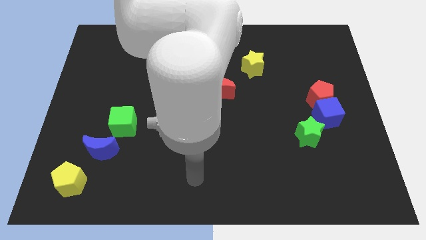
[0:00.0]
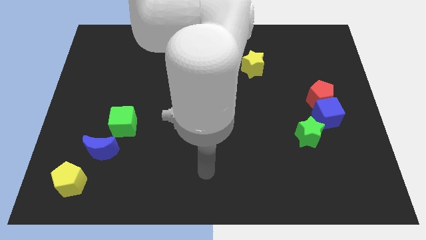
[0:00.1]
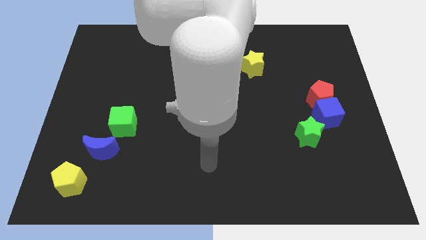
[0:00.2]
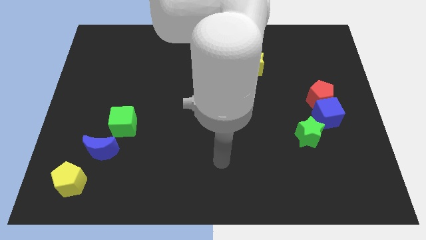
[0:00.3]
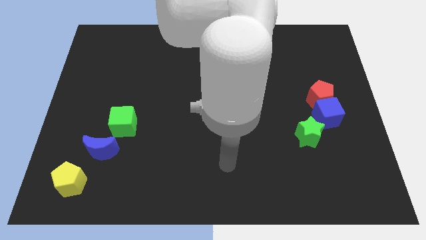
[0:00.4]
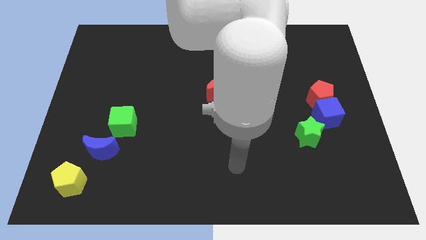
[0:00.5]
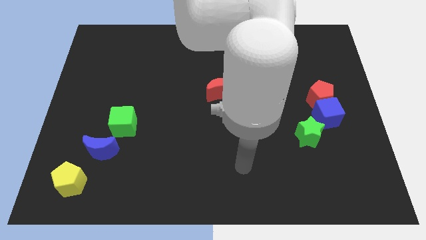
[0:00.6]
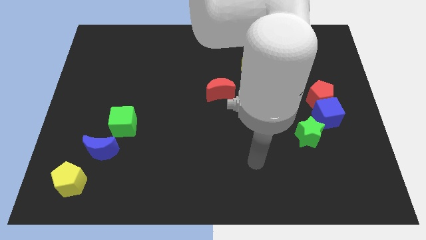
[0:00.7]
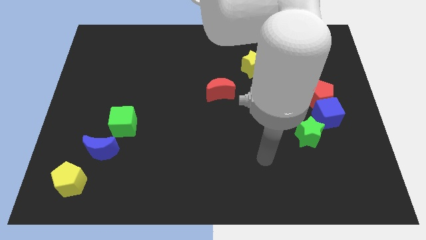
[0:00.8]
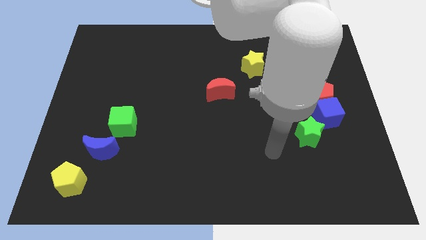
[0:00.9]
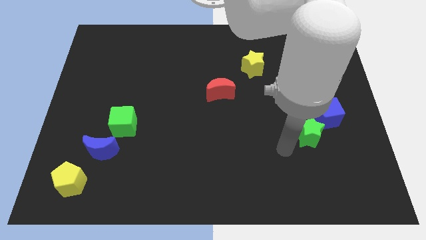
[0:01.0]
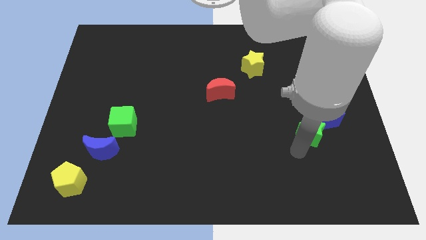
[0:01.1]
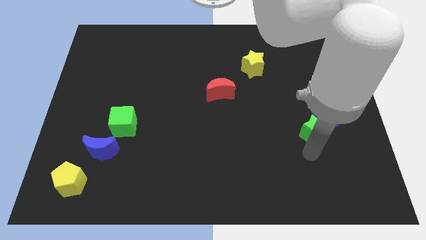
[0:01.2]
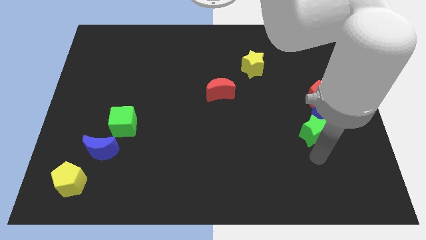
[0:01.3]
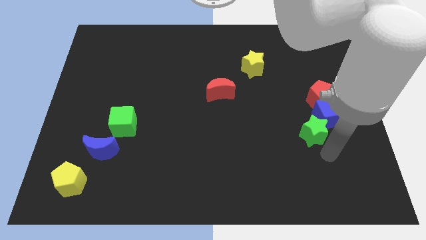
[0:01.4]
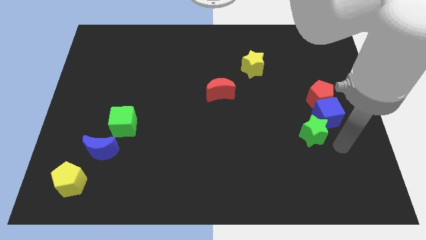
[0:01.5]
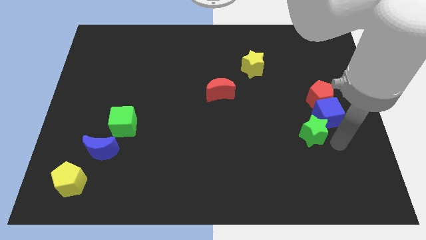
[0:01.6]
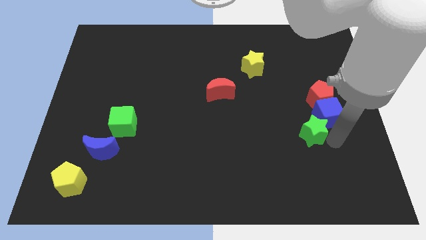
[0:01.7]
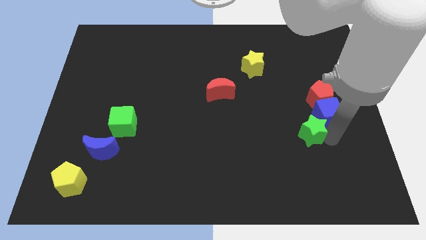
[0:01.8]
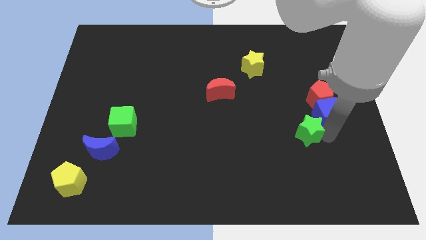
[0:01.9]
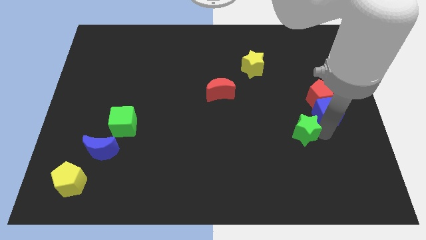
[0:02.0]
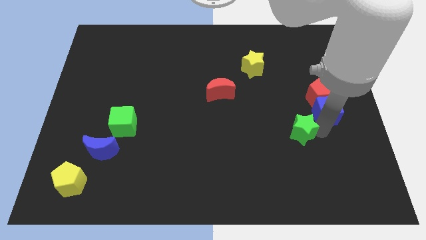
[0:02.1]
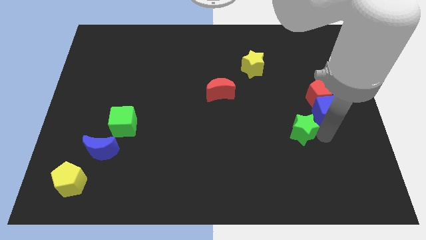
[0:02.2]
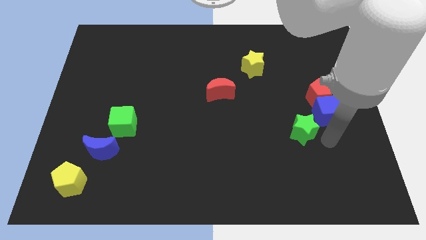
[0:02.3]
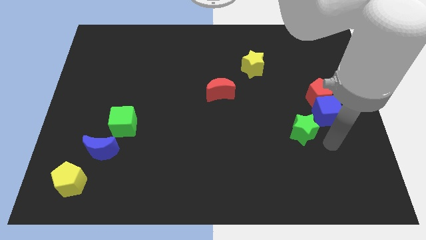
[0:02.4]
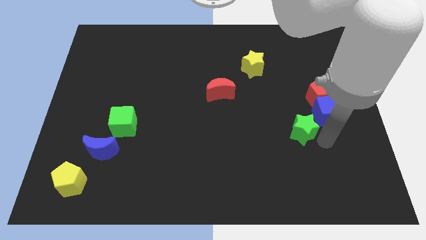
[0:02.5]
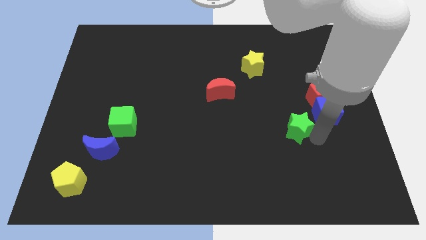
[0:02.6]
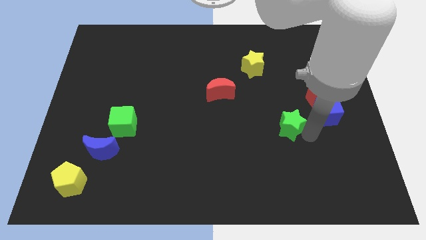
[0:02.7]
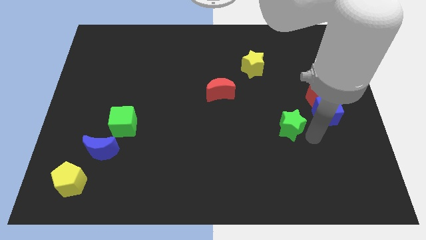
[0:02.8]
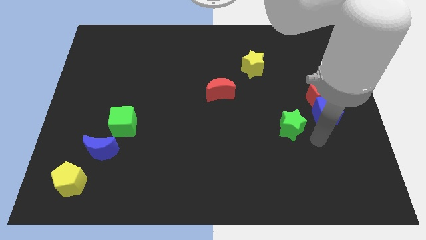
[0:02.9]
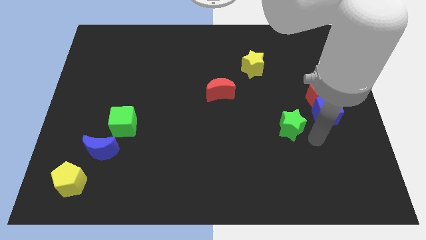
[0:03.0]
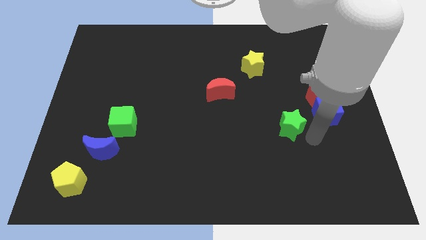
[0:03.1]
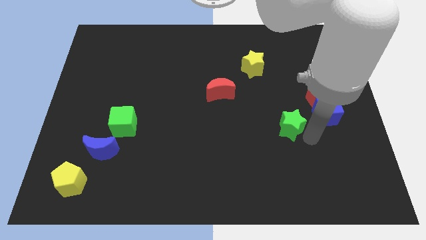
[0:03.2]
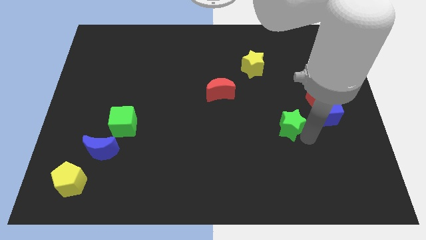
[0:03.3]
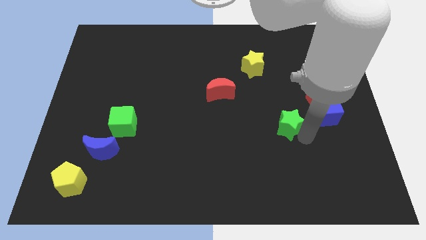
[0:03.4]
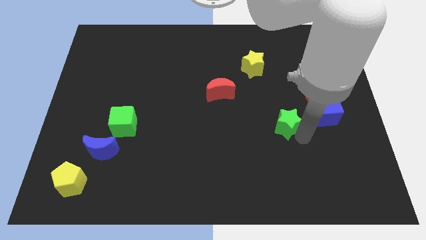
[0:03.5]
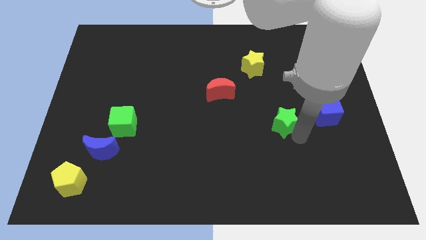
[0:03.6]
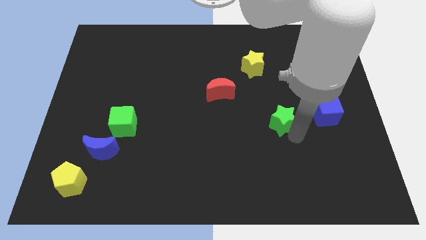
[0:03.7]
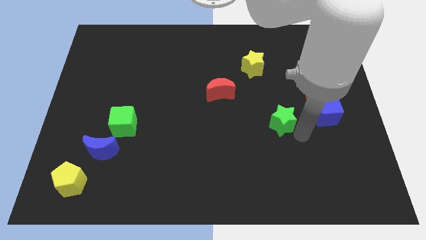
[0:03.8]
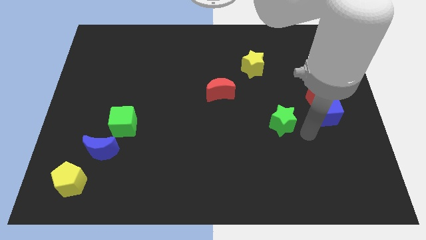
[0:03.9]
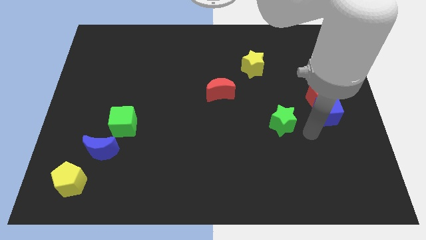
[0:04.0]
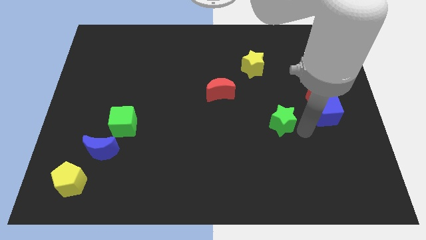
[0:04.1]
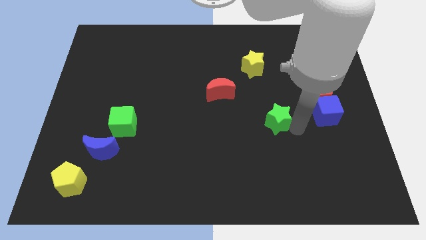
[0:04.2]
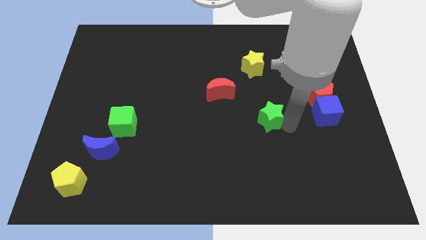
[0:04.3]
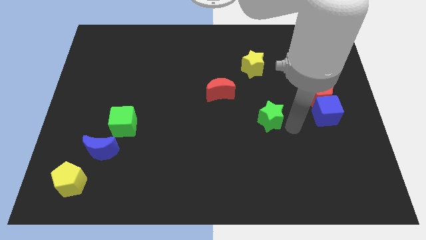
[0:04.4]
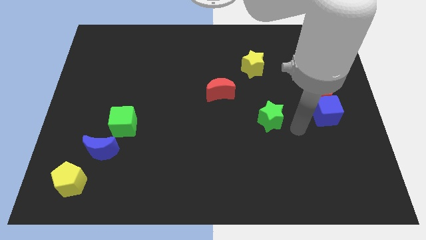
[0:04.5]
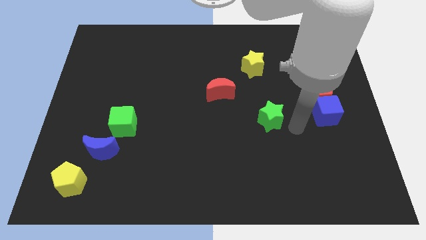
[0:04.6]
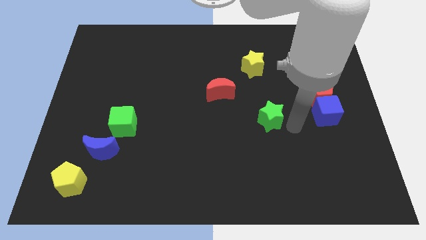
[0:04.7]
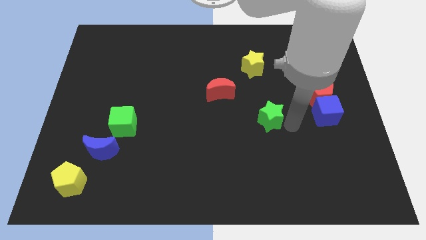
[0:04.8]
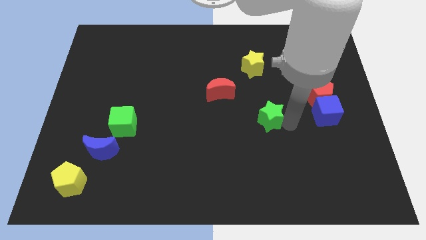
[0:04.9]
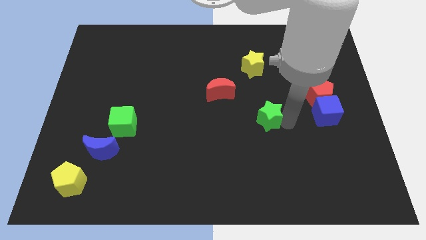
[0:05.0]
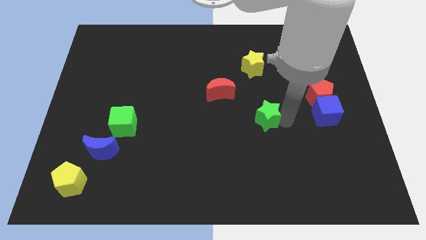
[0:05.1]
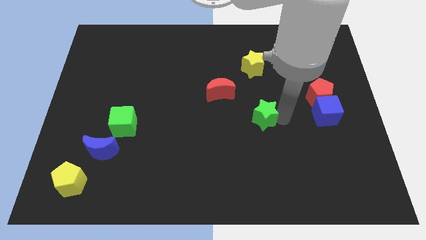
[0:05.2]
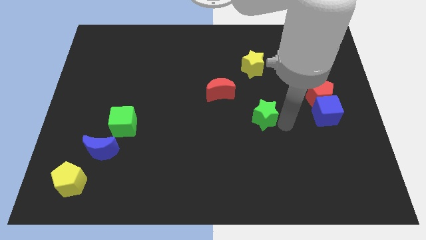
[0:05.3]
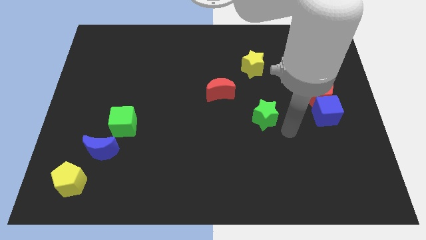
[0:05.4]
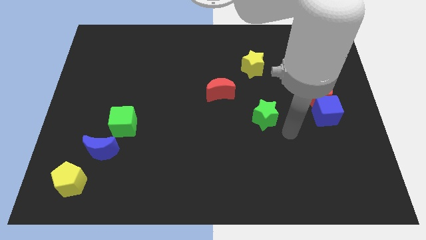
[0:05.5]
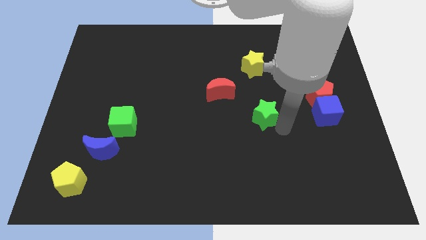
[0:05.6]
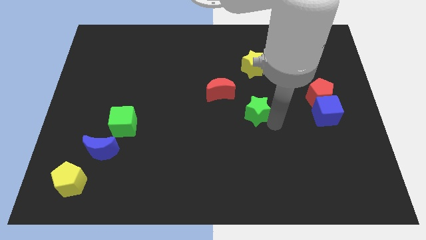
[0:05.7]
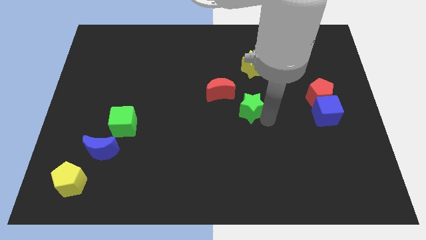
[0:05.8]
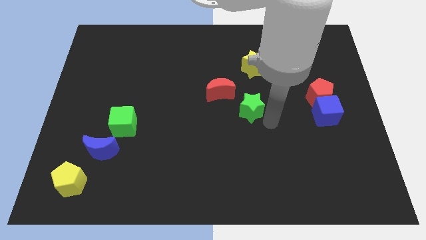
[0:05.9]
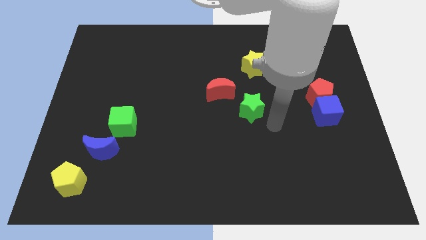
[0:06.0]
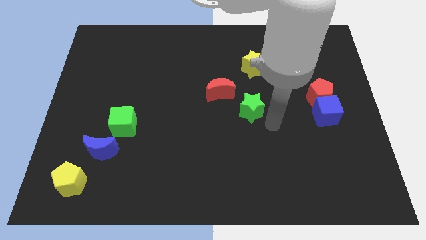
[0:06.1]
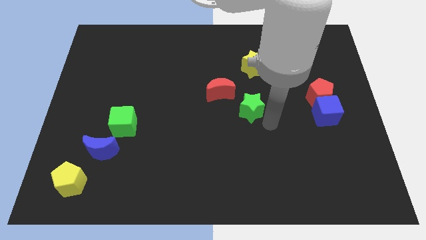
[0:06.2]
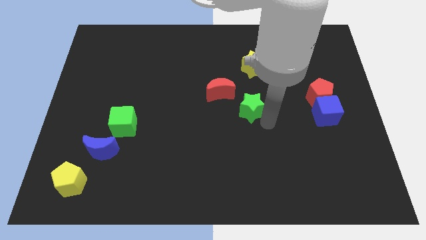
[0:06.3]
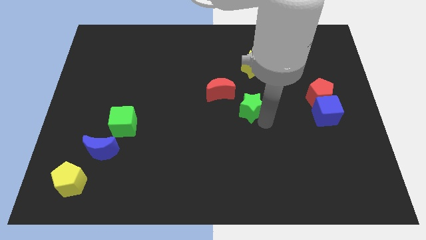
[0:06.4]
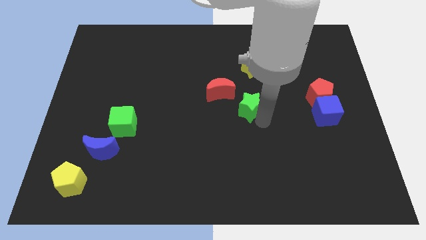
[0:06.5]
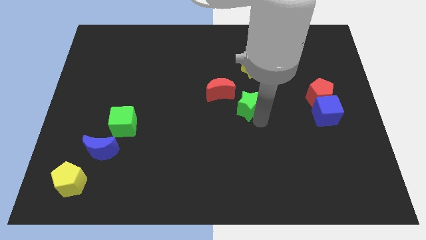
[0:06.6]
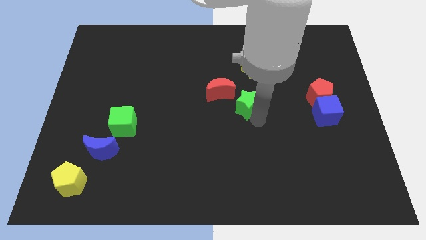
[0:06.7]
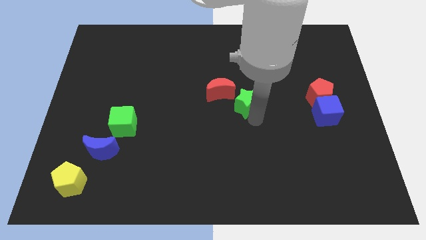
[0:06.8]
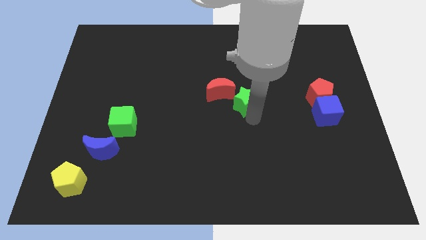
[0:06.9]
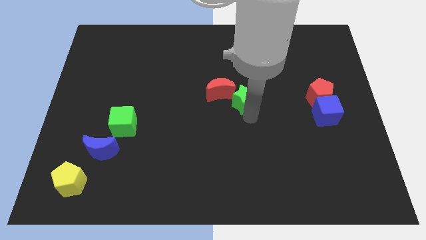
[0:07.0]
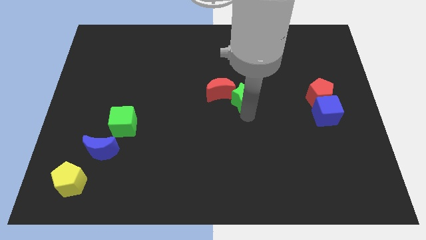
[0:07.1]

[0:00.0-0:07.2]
move the green star towards the red moon
